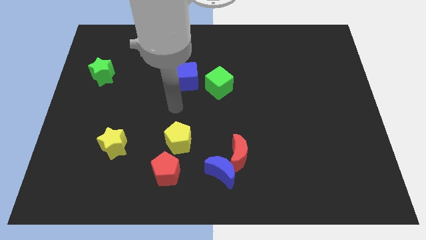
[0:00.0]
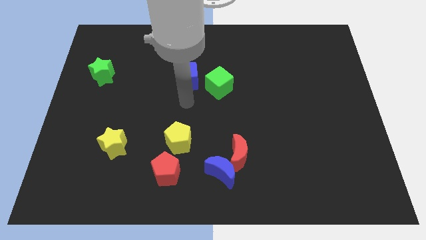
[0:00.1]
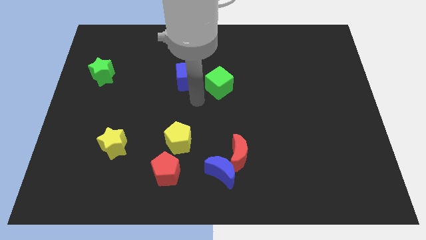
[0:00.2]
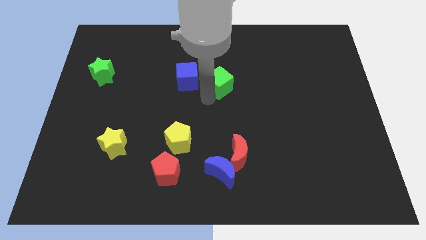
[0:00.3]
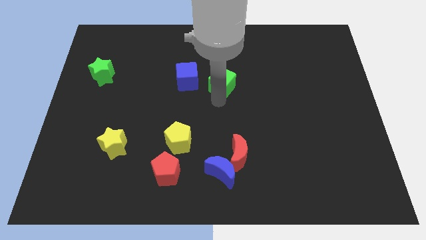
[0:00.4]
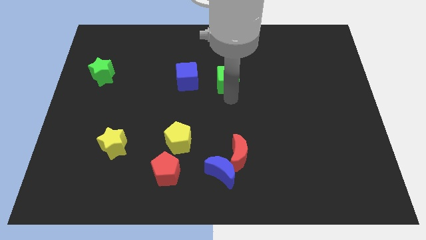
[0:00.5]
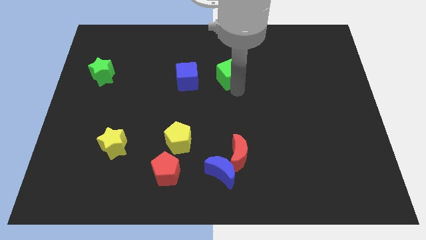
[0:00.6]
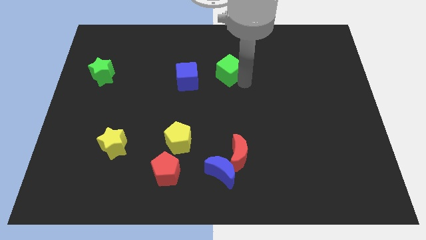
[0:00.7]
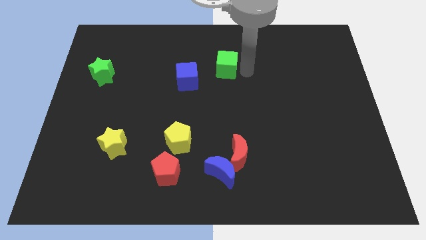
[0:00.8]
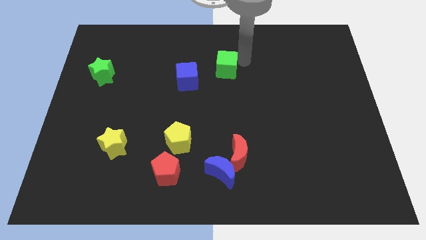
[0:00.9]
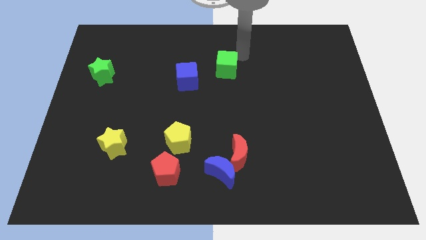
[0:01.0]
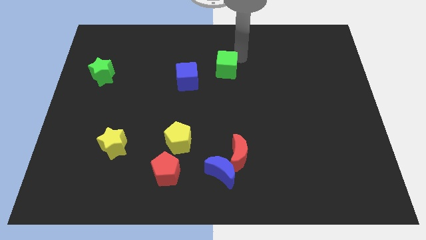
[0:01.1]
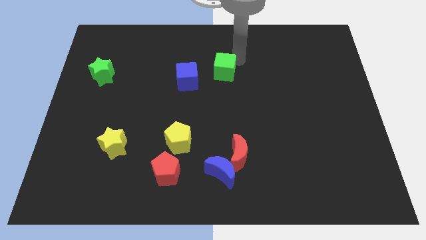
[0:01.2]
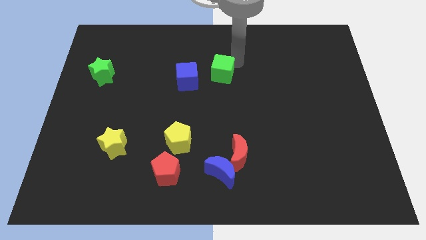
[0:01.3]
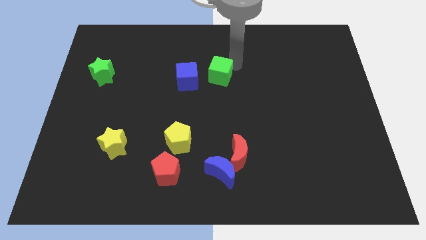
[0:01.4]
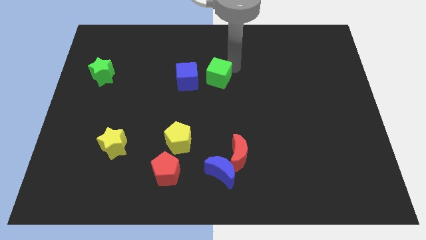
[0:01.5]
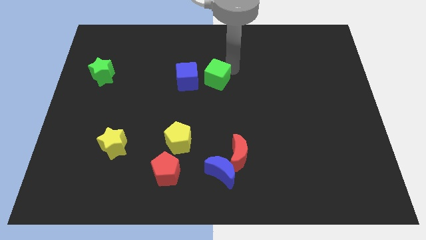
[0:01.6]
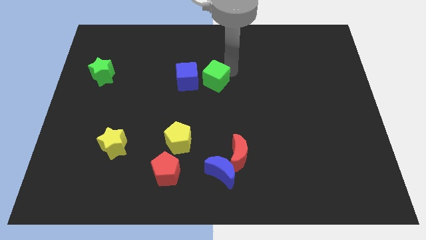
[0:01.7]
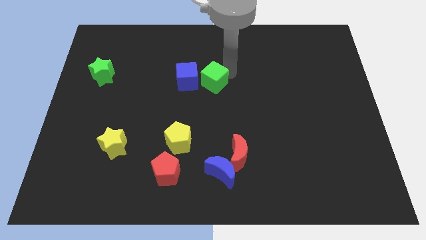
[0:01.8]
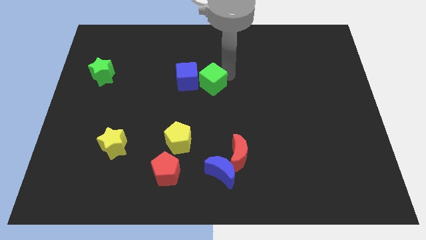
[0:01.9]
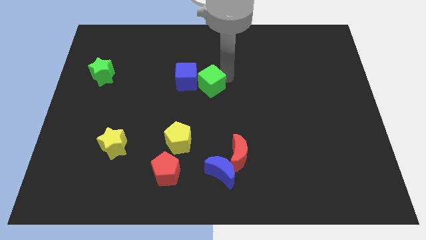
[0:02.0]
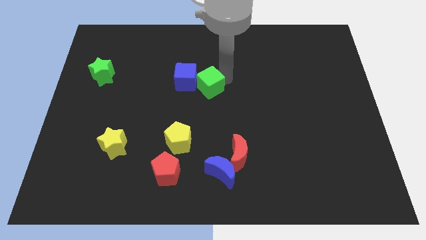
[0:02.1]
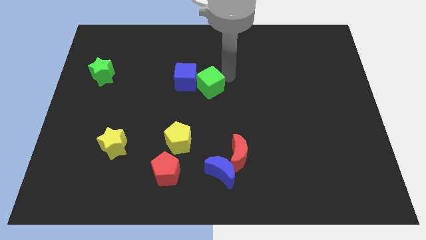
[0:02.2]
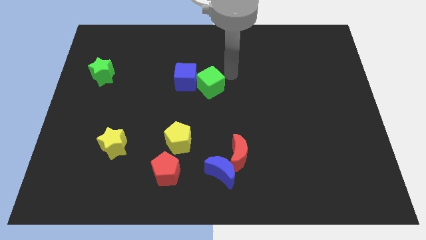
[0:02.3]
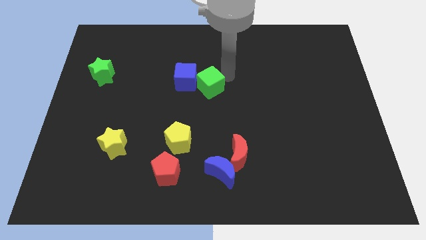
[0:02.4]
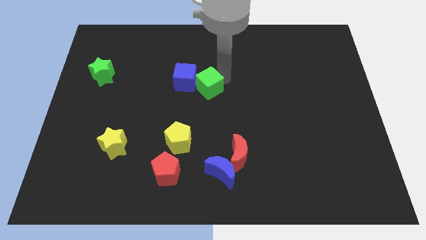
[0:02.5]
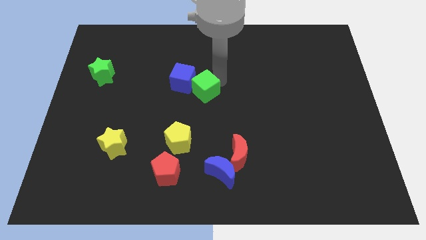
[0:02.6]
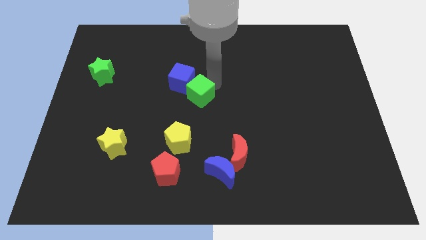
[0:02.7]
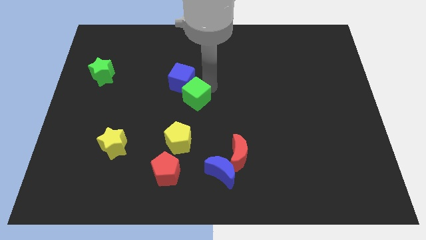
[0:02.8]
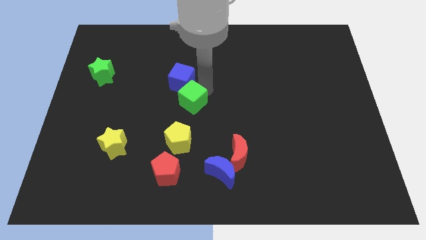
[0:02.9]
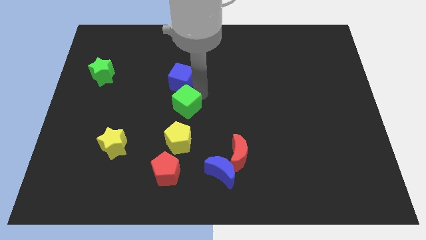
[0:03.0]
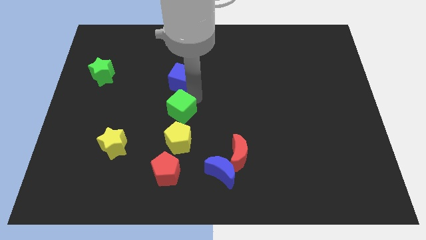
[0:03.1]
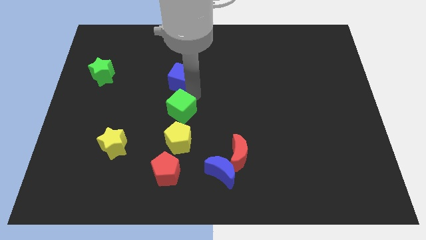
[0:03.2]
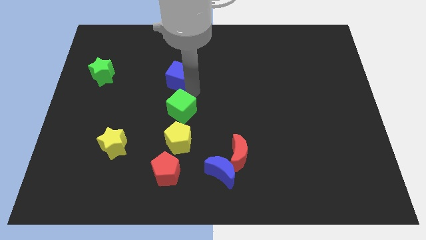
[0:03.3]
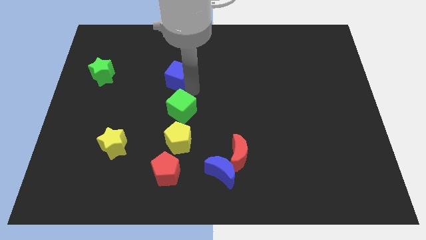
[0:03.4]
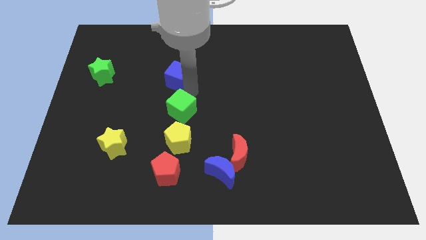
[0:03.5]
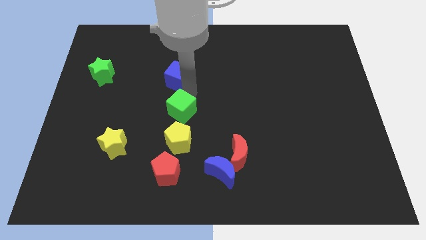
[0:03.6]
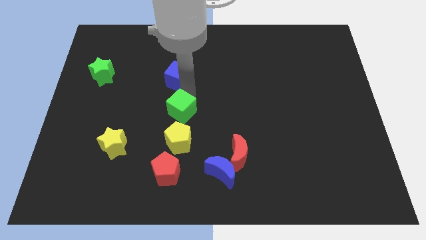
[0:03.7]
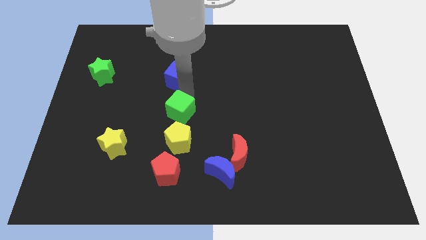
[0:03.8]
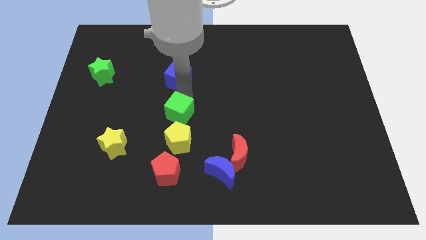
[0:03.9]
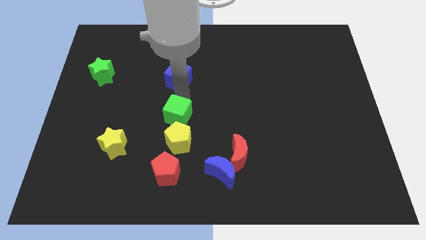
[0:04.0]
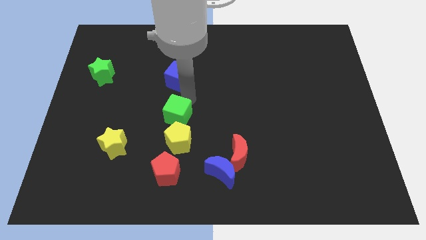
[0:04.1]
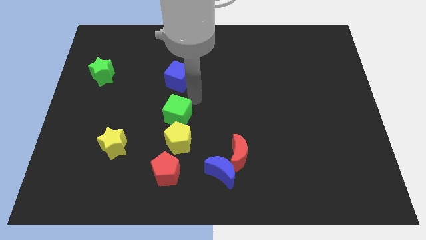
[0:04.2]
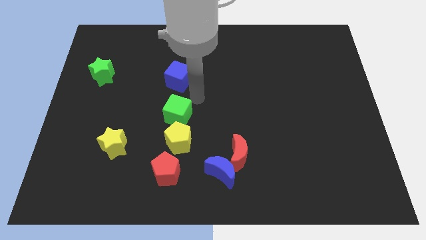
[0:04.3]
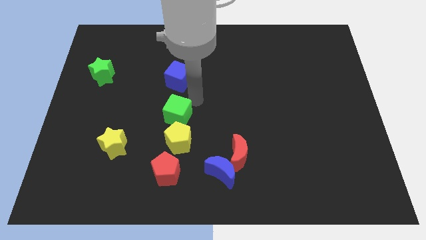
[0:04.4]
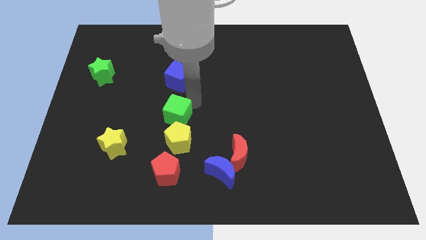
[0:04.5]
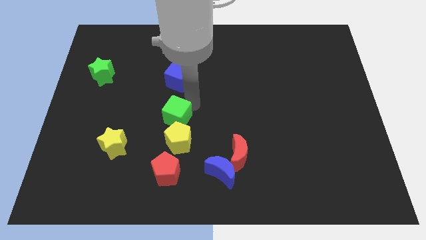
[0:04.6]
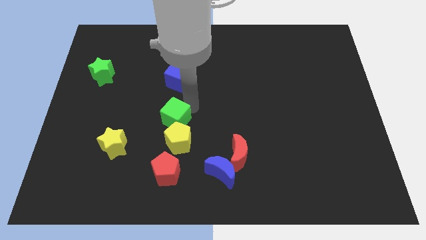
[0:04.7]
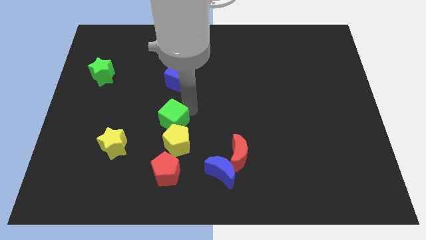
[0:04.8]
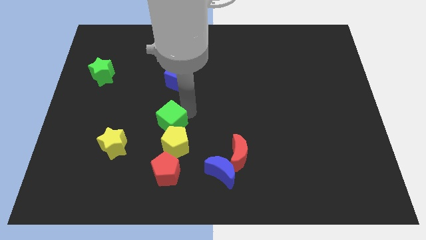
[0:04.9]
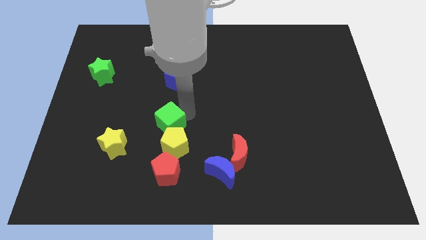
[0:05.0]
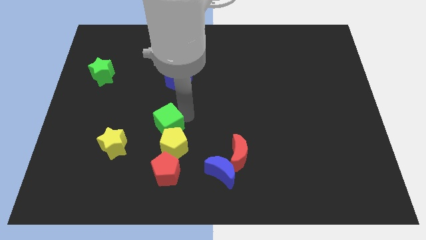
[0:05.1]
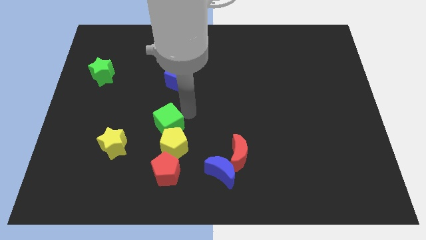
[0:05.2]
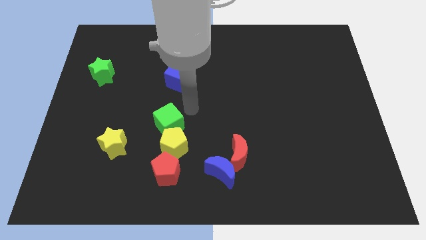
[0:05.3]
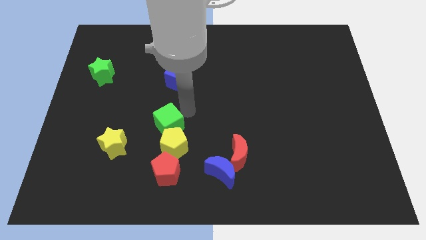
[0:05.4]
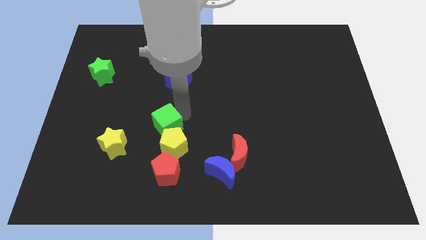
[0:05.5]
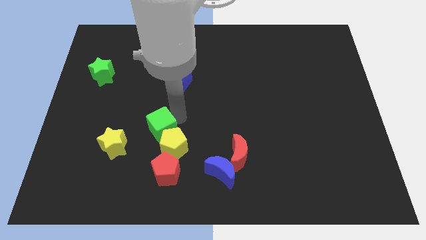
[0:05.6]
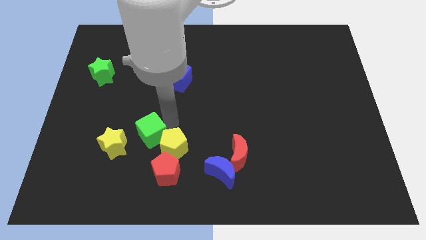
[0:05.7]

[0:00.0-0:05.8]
slide the green cube down and to the left

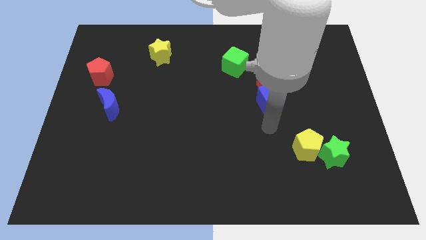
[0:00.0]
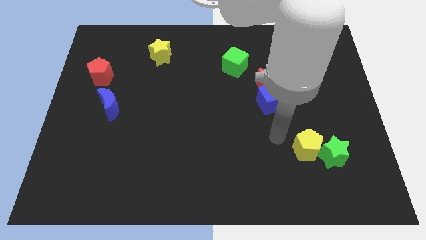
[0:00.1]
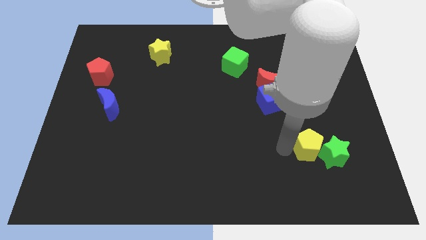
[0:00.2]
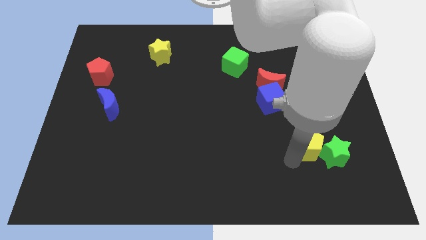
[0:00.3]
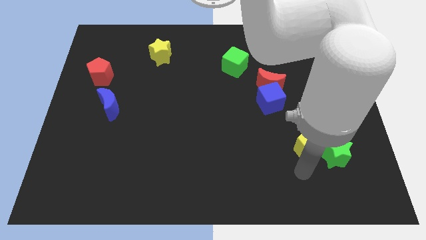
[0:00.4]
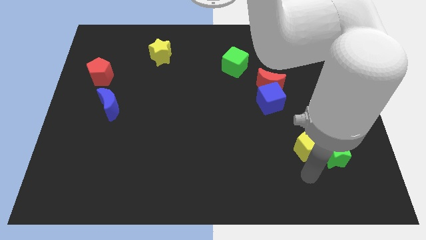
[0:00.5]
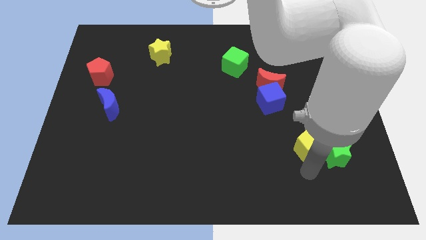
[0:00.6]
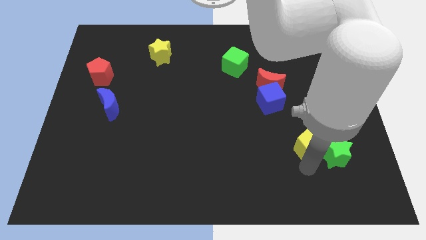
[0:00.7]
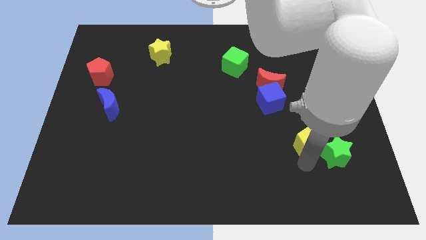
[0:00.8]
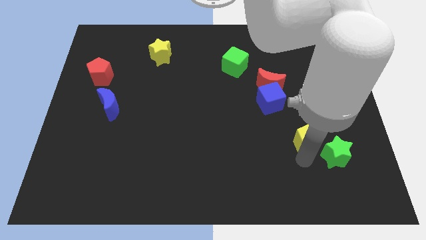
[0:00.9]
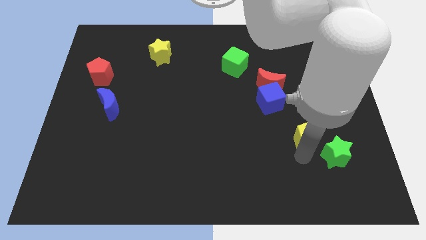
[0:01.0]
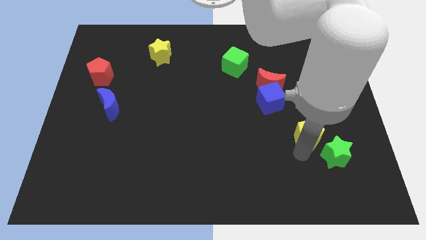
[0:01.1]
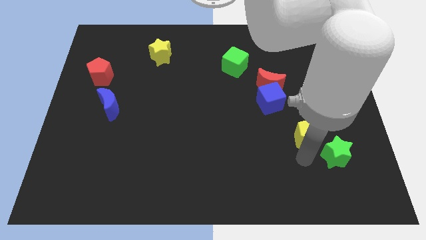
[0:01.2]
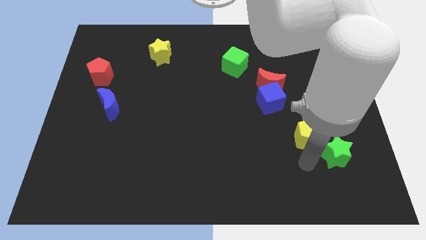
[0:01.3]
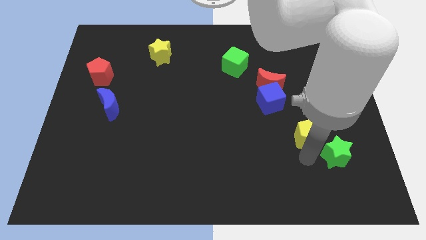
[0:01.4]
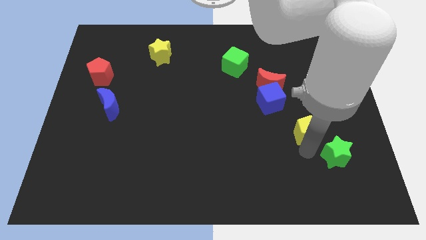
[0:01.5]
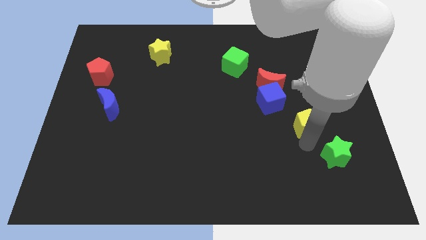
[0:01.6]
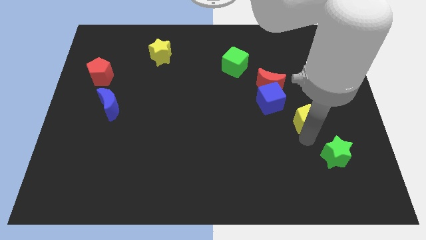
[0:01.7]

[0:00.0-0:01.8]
slightly push the yellow pentagon up

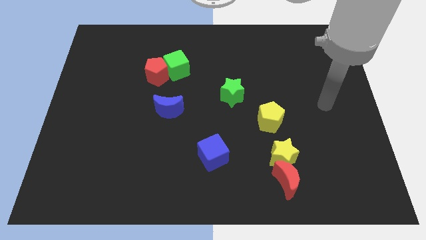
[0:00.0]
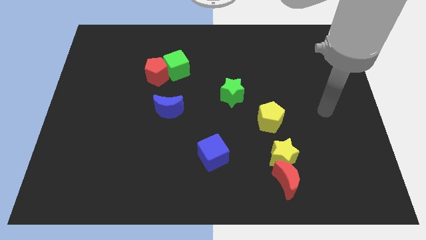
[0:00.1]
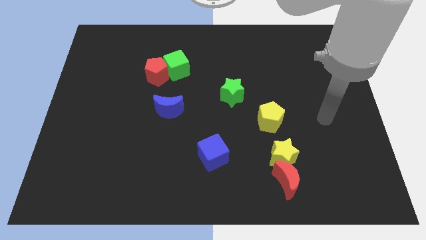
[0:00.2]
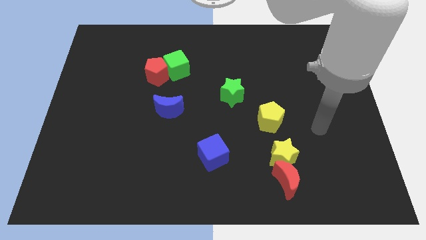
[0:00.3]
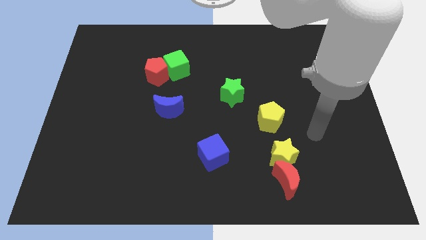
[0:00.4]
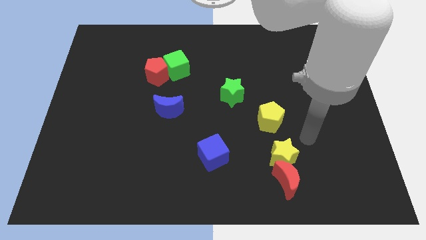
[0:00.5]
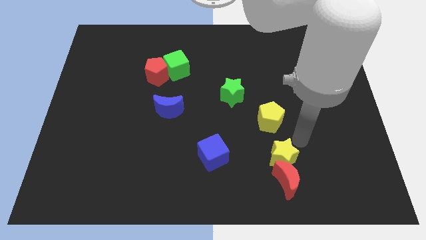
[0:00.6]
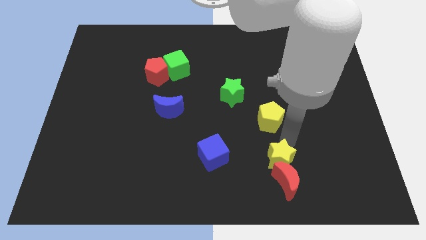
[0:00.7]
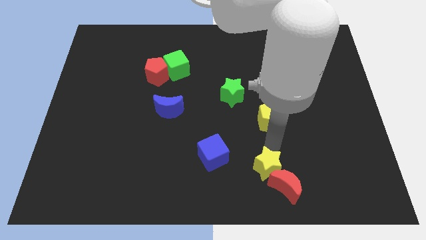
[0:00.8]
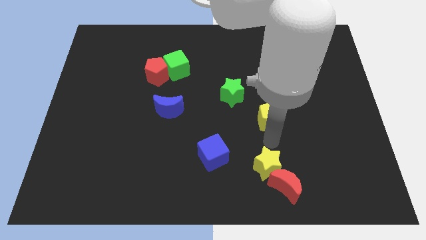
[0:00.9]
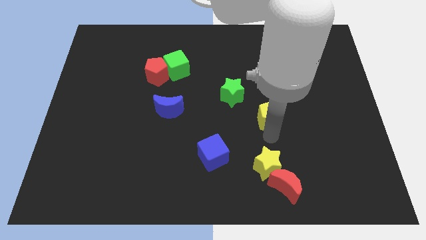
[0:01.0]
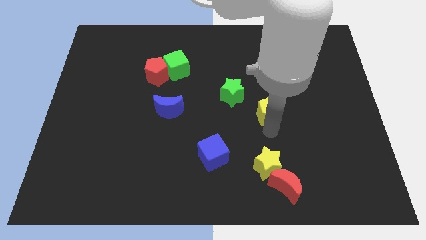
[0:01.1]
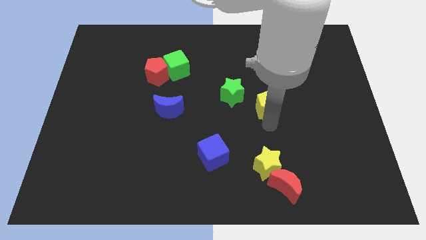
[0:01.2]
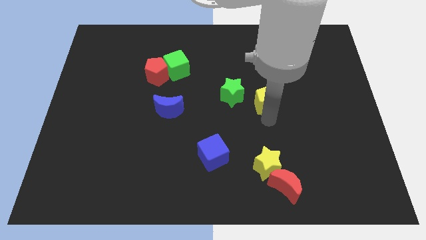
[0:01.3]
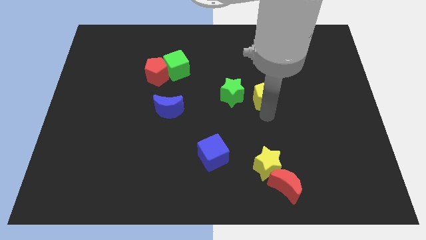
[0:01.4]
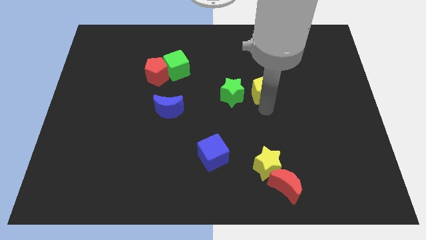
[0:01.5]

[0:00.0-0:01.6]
slide the yellow pentagon up a bit
